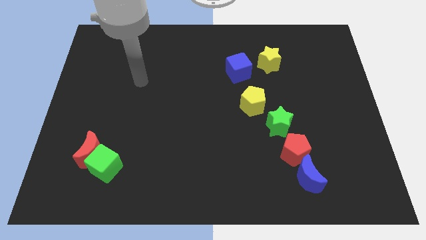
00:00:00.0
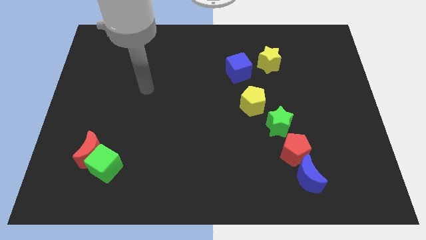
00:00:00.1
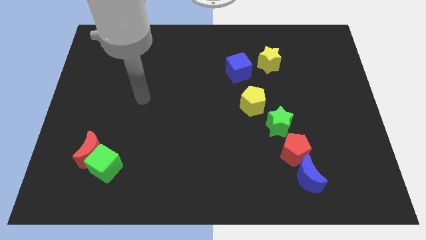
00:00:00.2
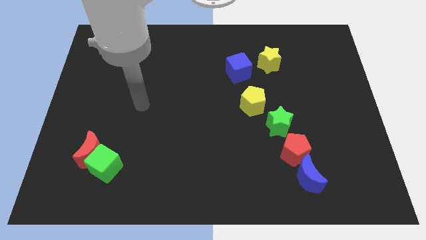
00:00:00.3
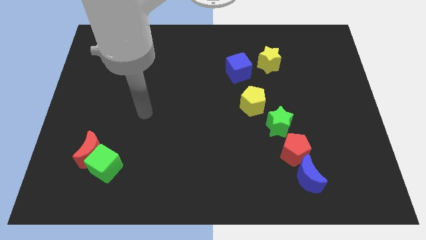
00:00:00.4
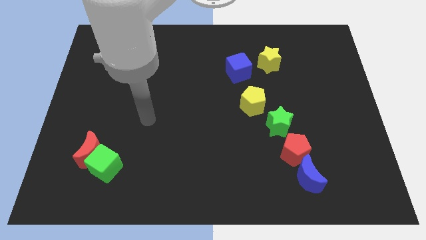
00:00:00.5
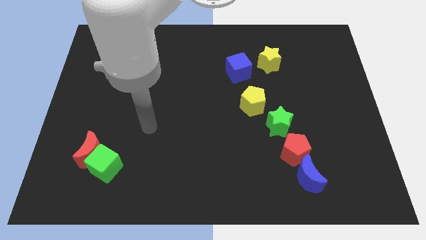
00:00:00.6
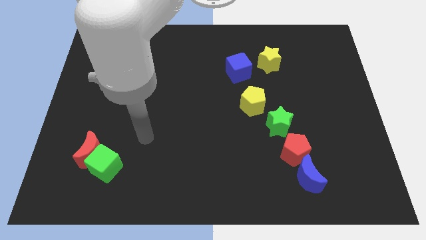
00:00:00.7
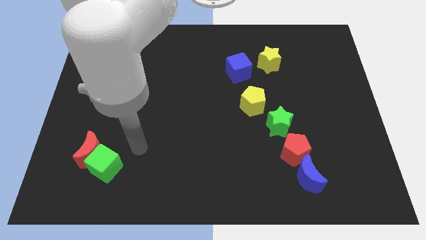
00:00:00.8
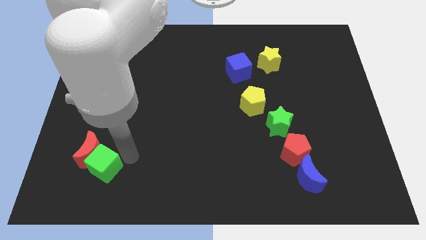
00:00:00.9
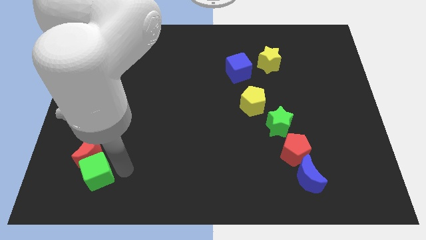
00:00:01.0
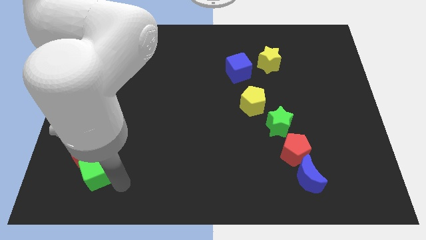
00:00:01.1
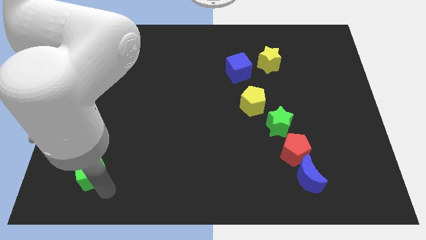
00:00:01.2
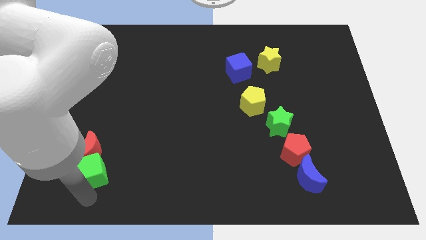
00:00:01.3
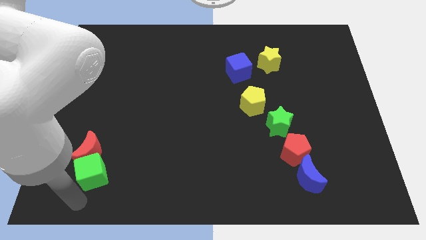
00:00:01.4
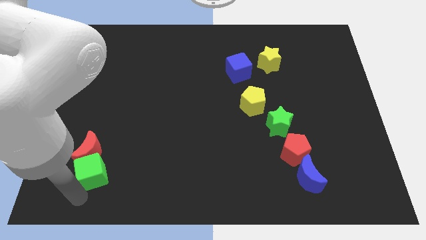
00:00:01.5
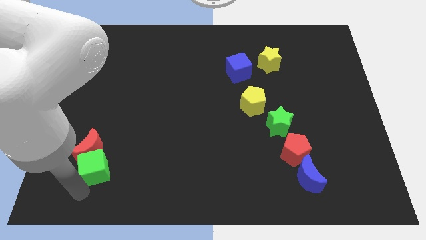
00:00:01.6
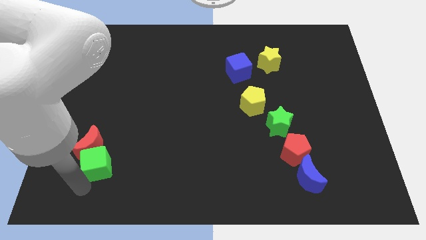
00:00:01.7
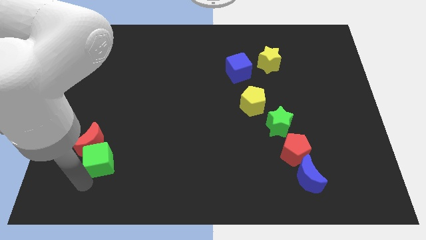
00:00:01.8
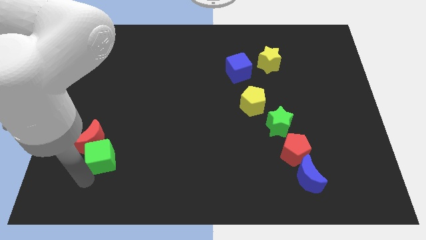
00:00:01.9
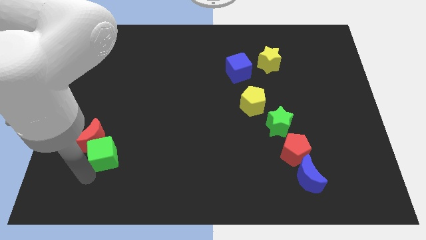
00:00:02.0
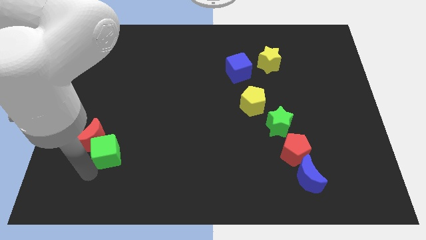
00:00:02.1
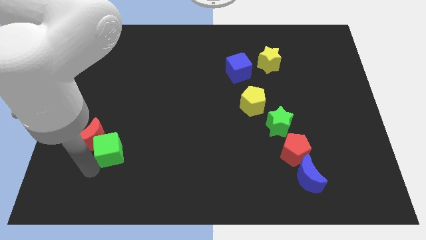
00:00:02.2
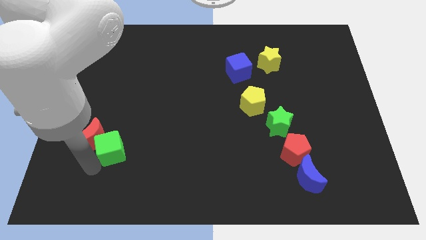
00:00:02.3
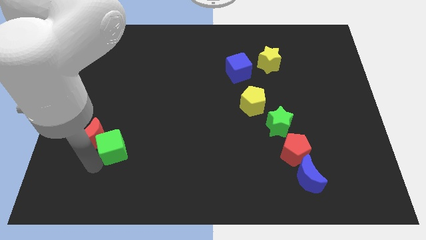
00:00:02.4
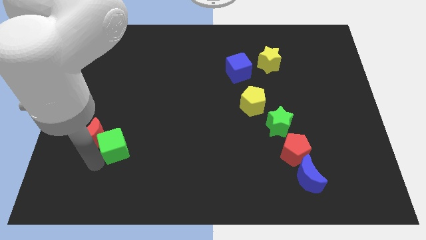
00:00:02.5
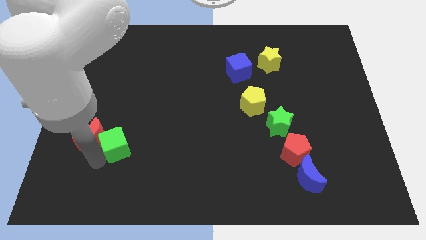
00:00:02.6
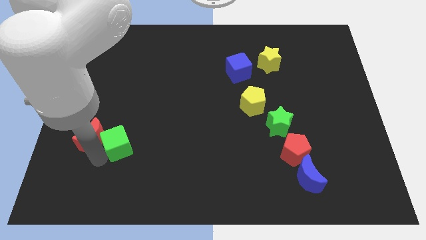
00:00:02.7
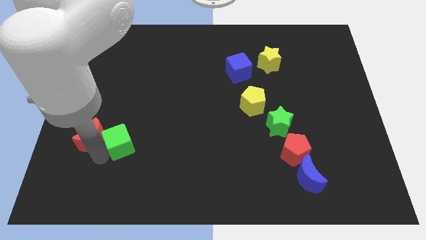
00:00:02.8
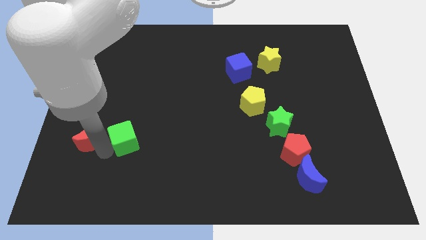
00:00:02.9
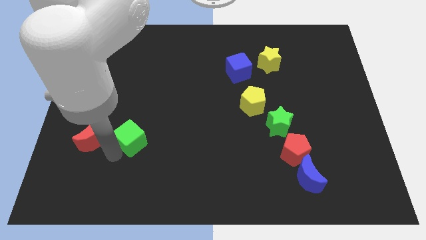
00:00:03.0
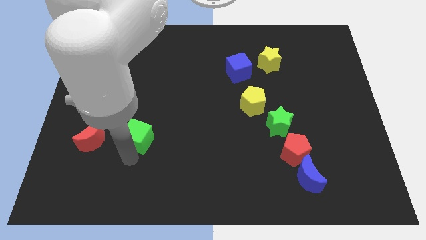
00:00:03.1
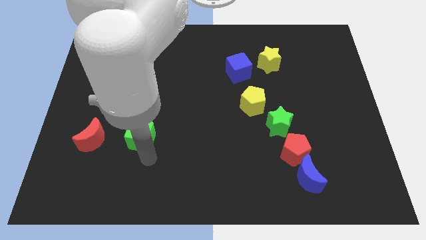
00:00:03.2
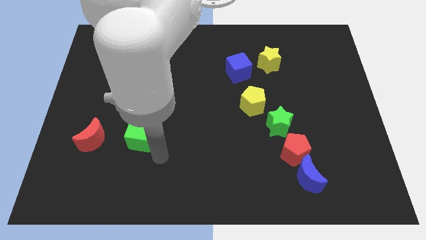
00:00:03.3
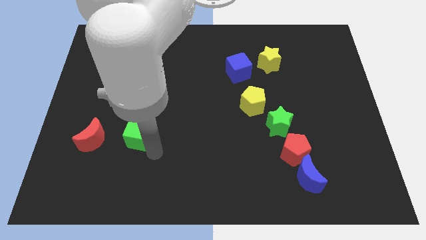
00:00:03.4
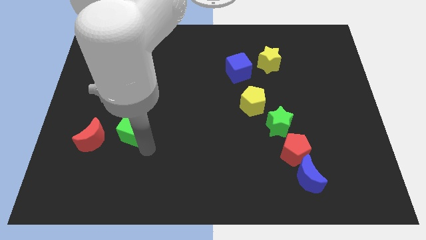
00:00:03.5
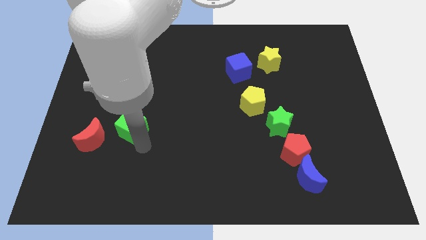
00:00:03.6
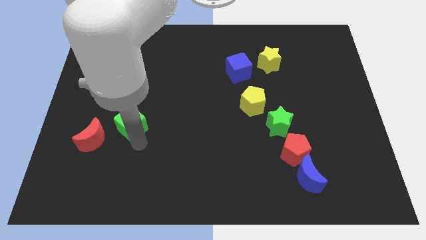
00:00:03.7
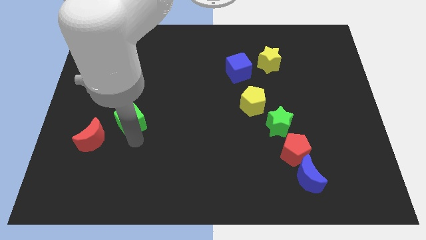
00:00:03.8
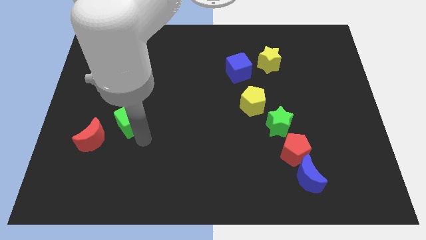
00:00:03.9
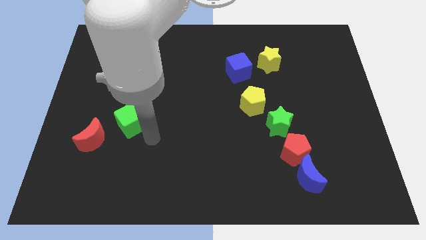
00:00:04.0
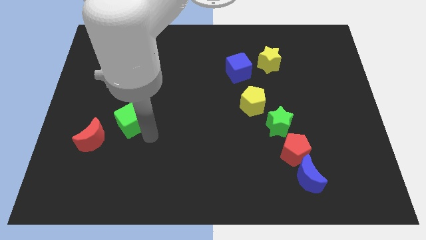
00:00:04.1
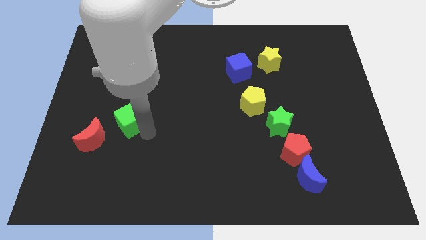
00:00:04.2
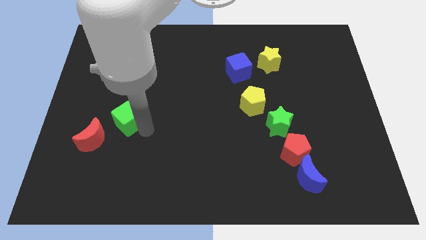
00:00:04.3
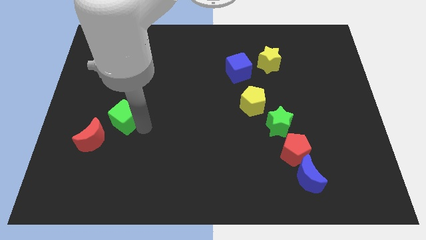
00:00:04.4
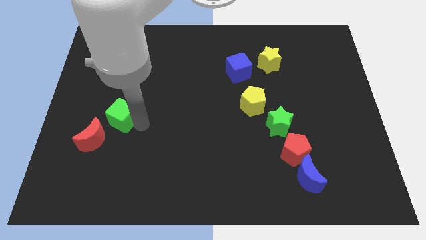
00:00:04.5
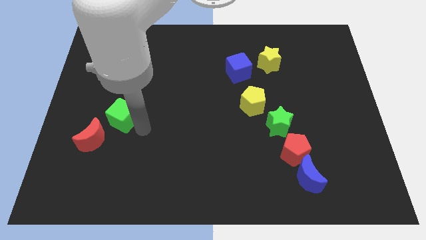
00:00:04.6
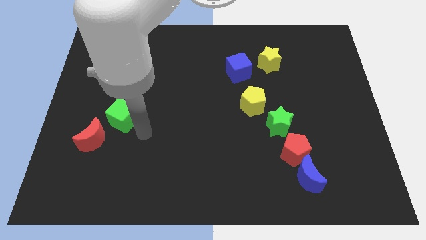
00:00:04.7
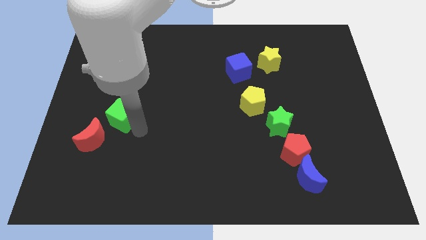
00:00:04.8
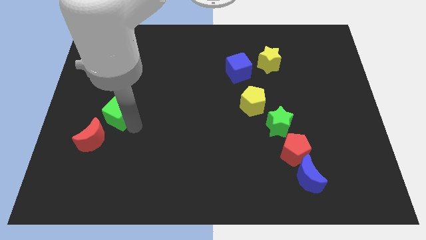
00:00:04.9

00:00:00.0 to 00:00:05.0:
slide the green cube to the top of the red moon

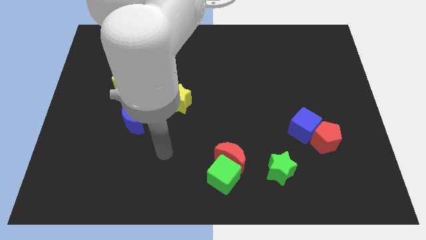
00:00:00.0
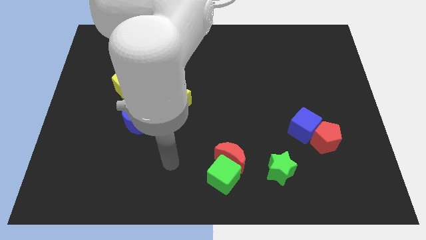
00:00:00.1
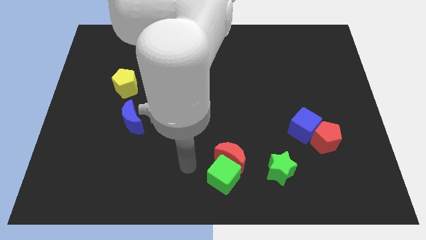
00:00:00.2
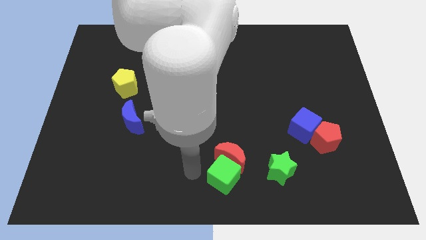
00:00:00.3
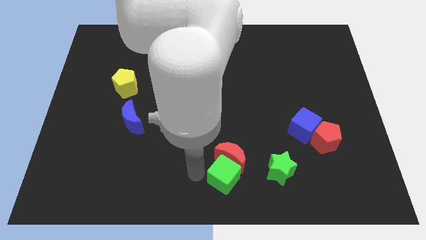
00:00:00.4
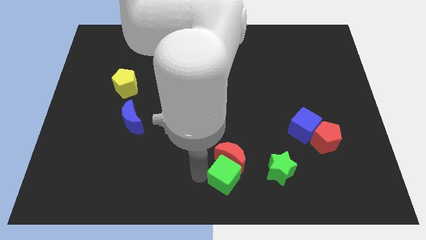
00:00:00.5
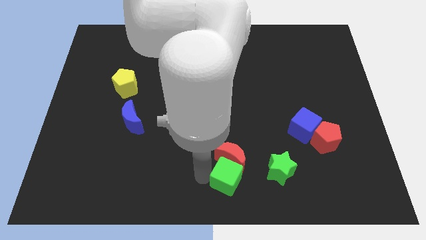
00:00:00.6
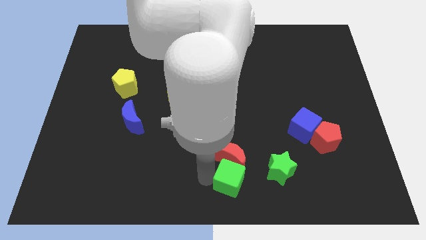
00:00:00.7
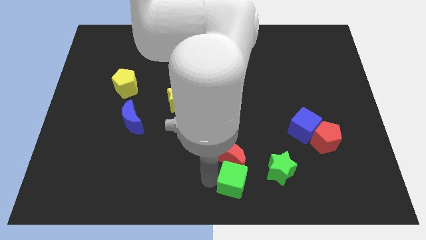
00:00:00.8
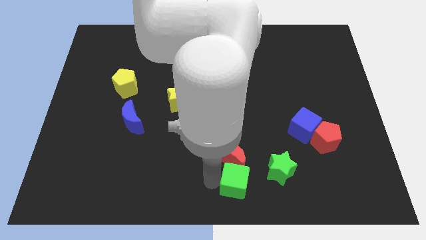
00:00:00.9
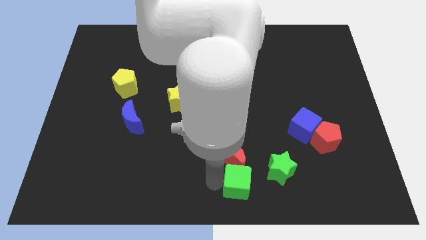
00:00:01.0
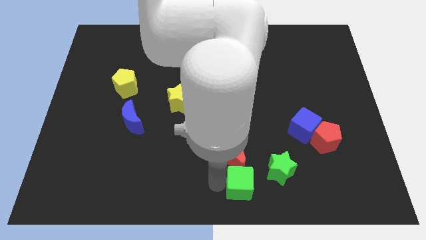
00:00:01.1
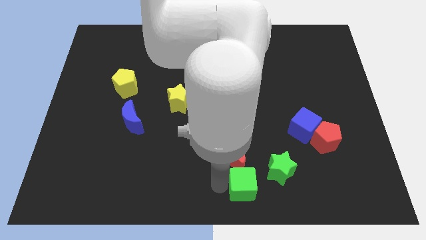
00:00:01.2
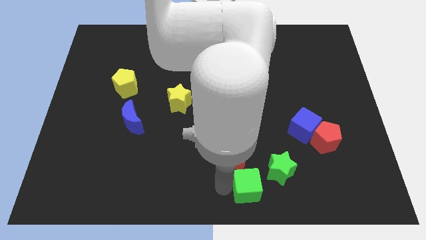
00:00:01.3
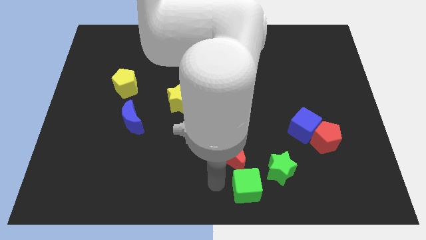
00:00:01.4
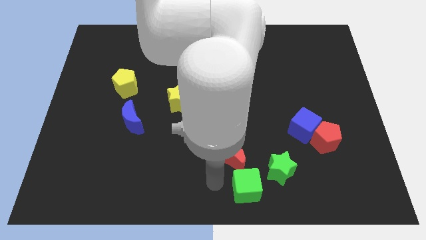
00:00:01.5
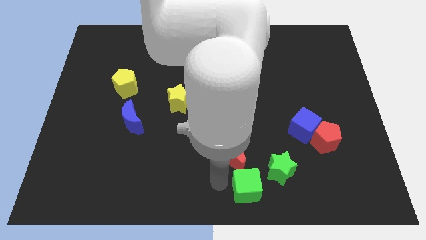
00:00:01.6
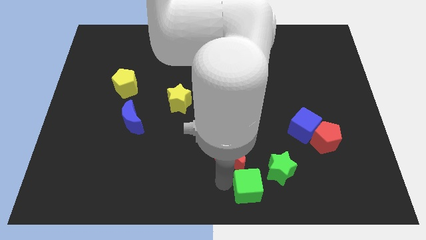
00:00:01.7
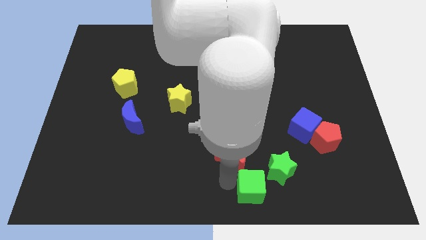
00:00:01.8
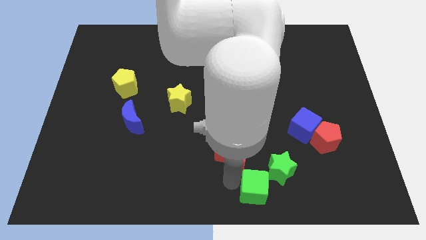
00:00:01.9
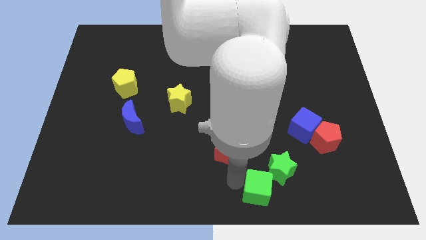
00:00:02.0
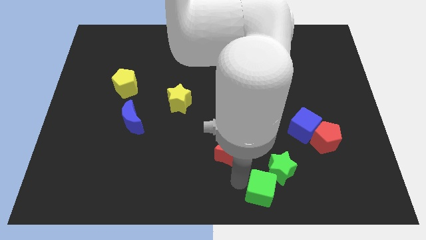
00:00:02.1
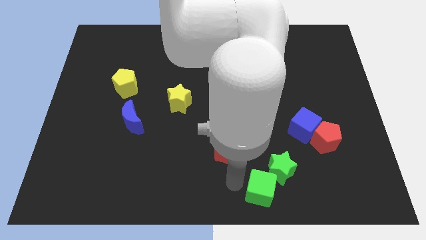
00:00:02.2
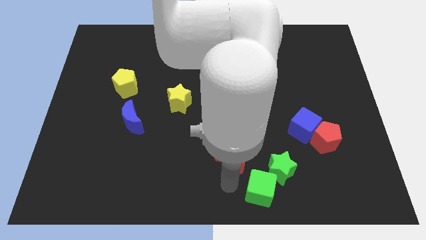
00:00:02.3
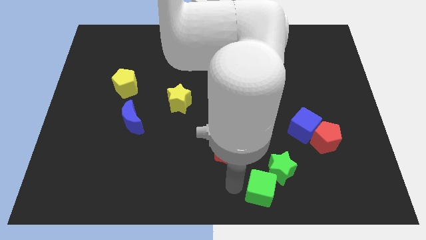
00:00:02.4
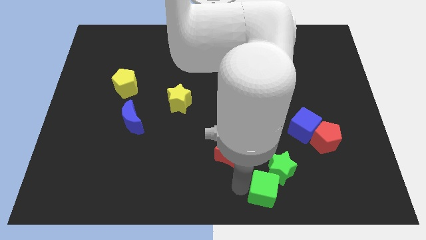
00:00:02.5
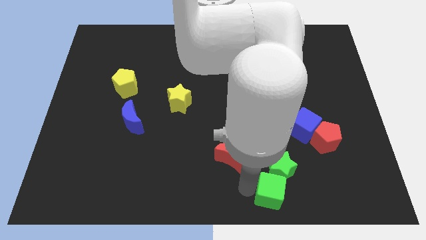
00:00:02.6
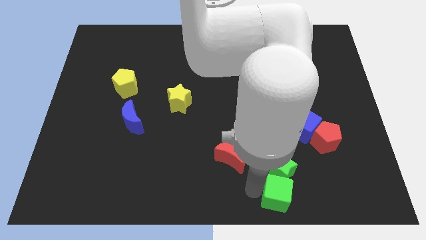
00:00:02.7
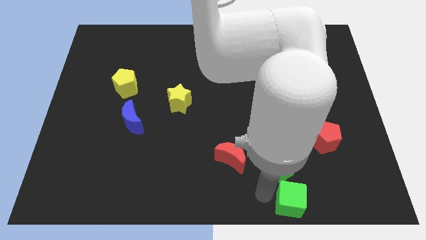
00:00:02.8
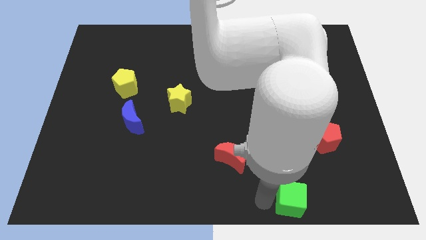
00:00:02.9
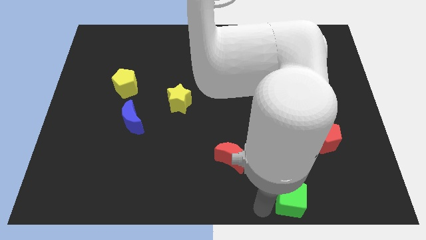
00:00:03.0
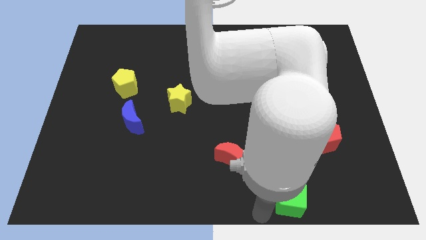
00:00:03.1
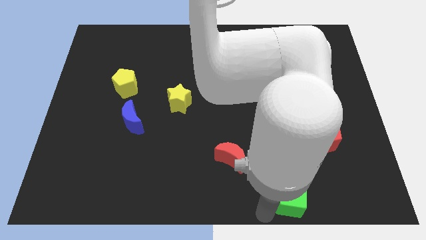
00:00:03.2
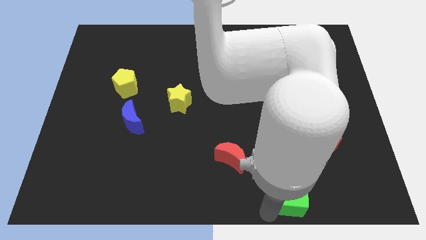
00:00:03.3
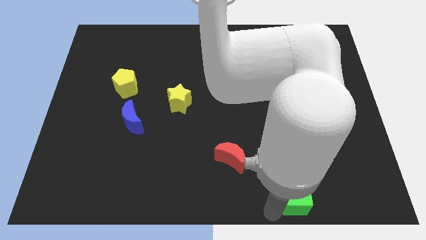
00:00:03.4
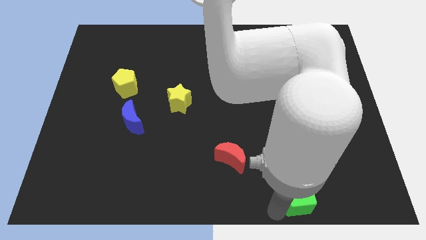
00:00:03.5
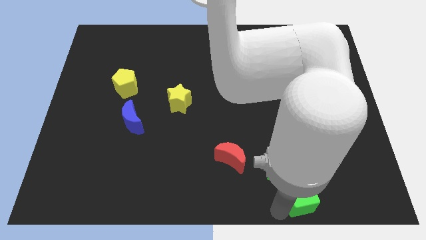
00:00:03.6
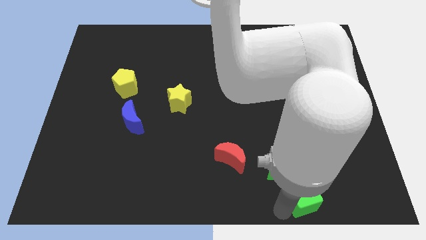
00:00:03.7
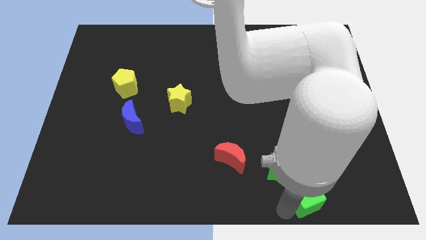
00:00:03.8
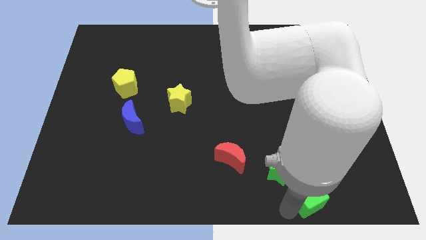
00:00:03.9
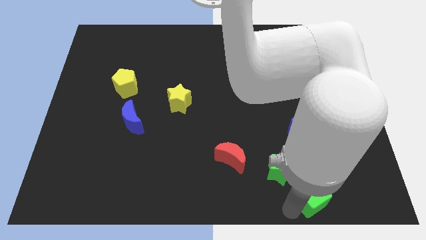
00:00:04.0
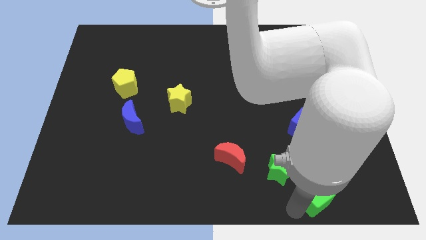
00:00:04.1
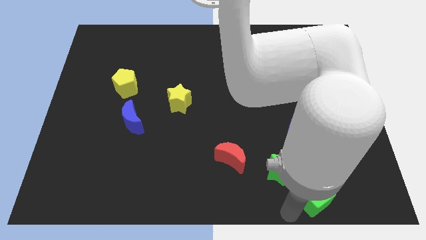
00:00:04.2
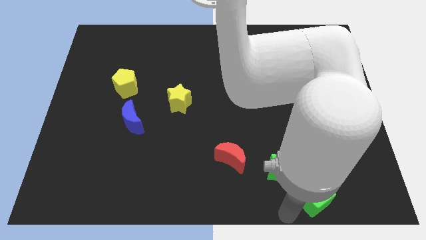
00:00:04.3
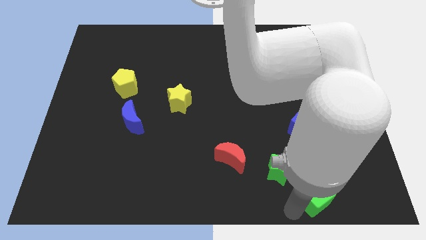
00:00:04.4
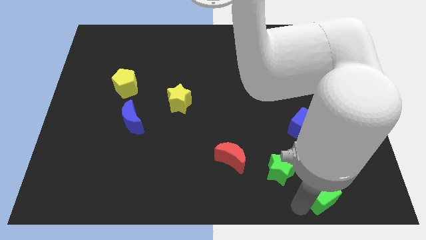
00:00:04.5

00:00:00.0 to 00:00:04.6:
push the green cube below the red pentagon
